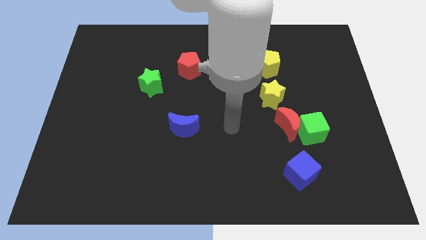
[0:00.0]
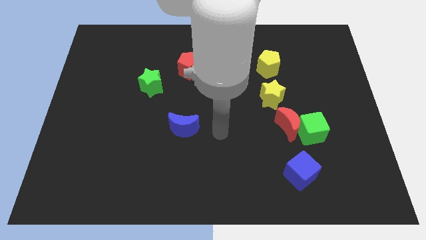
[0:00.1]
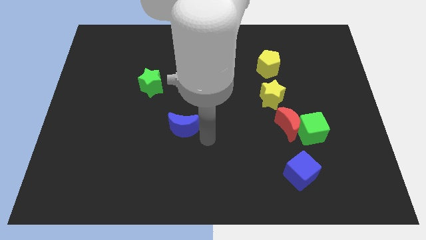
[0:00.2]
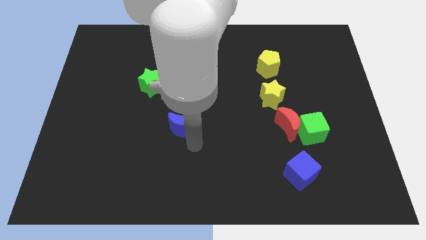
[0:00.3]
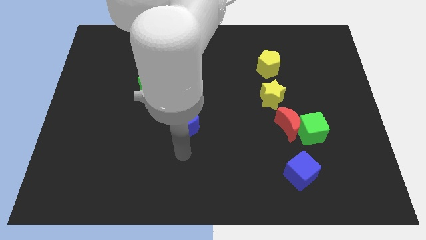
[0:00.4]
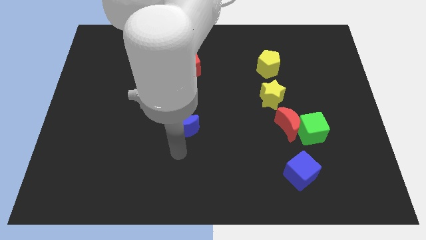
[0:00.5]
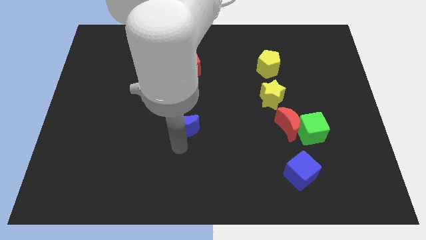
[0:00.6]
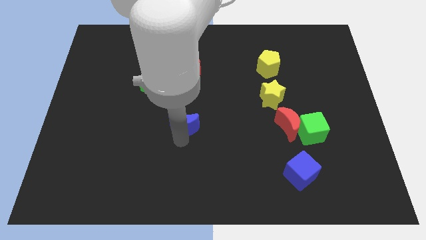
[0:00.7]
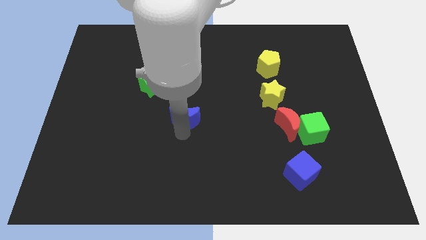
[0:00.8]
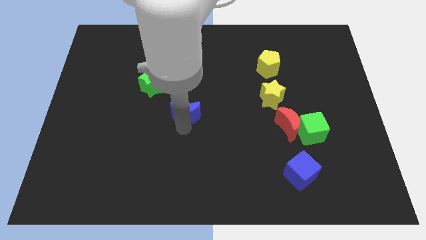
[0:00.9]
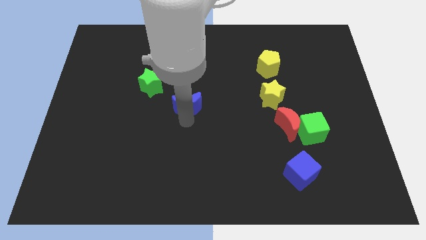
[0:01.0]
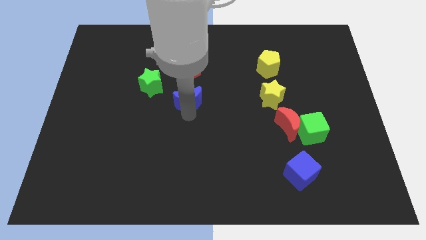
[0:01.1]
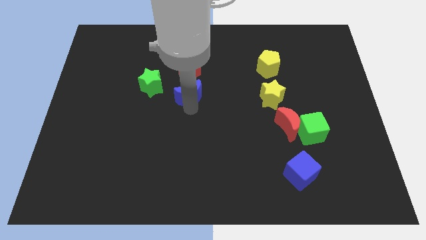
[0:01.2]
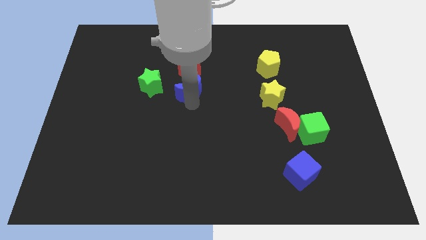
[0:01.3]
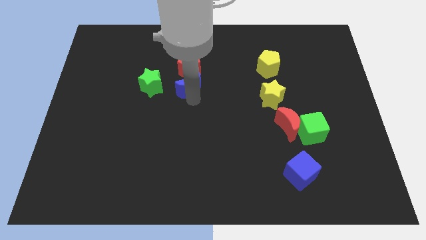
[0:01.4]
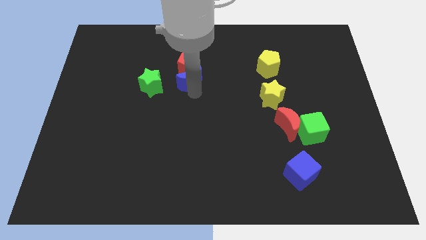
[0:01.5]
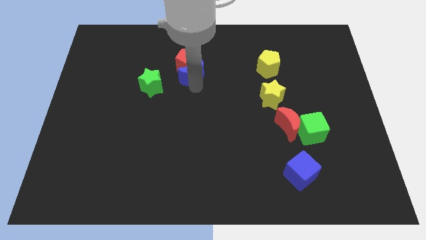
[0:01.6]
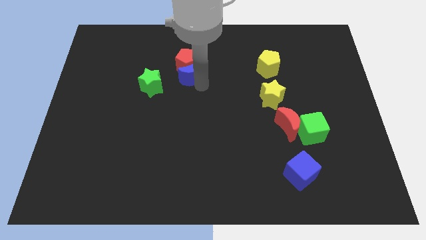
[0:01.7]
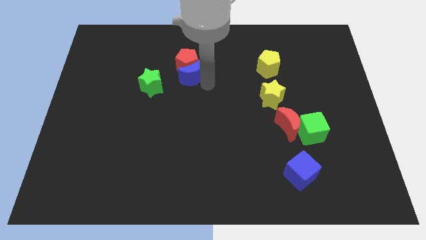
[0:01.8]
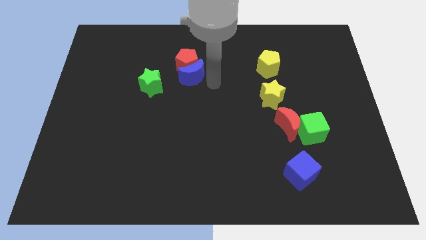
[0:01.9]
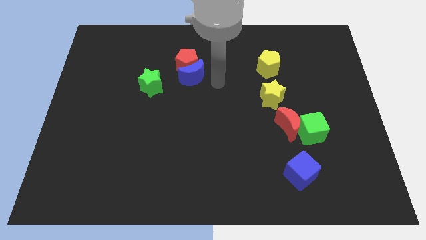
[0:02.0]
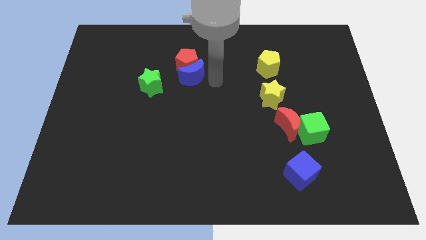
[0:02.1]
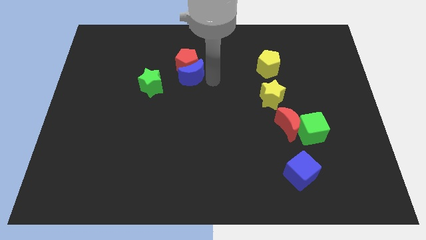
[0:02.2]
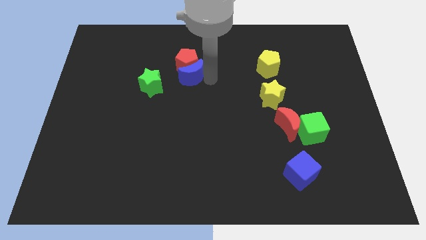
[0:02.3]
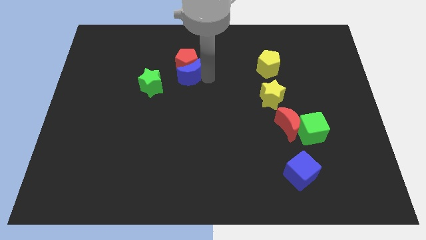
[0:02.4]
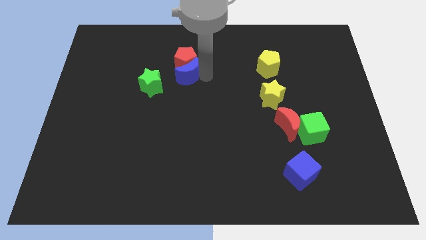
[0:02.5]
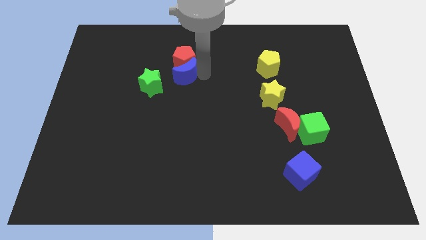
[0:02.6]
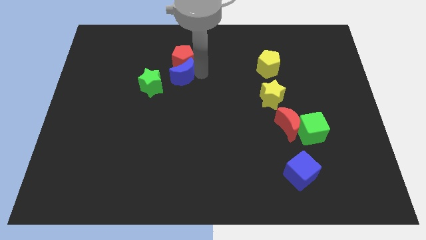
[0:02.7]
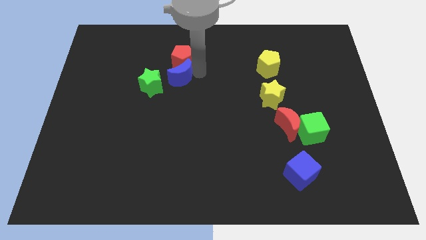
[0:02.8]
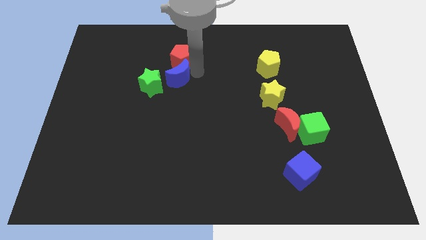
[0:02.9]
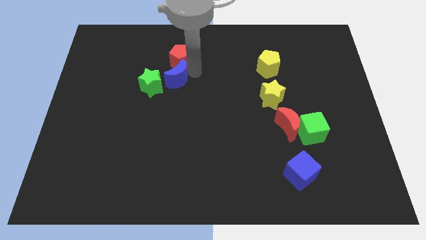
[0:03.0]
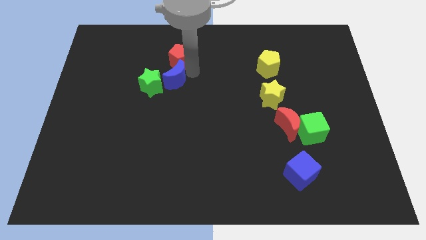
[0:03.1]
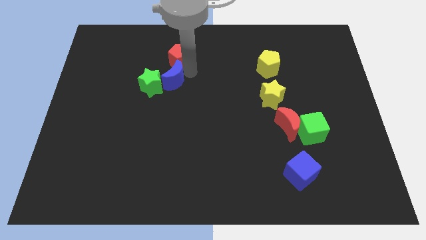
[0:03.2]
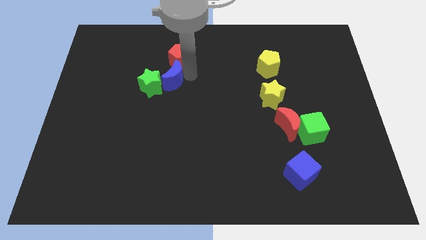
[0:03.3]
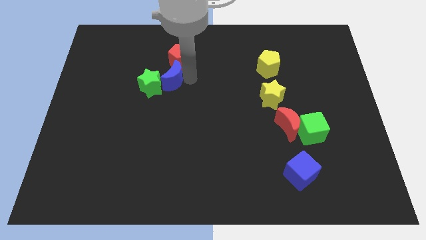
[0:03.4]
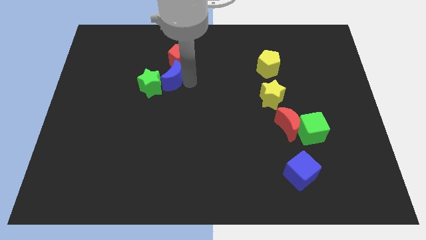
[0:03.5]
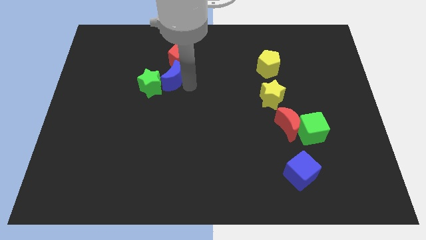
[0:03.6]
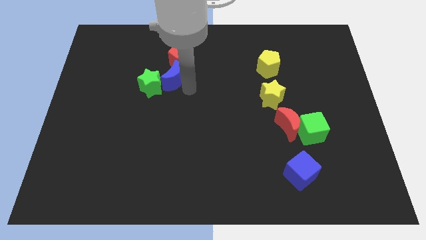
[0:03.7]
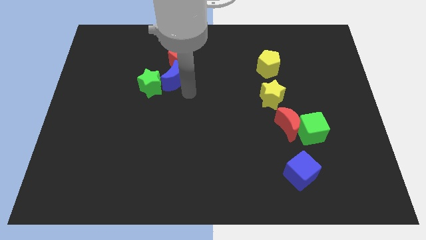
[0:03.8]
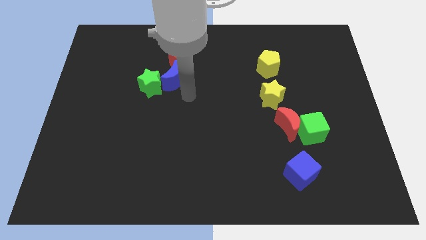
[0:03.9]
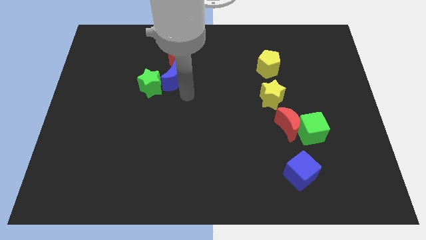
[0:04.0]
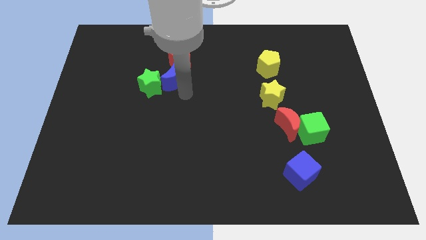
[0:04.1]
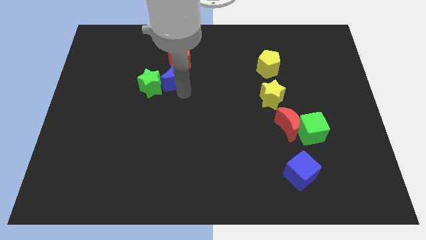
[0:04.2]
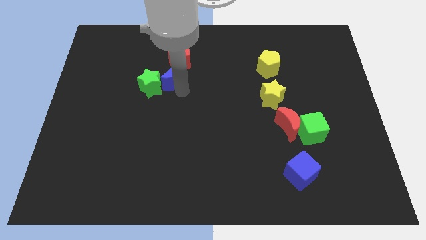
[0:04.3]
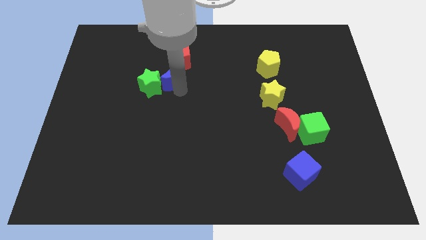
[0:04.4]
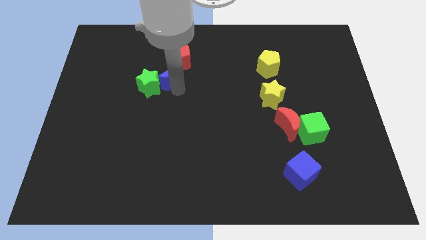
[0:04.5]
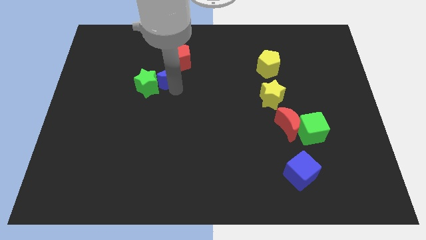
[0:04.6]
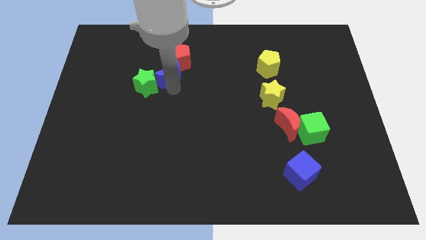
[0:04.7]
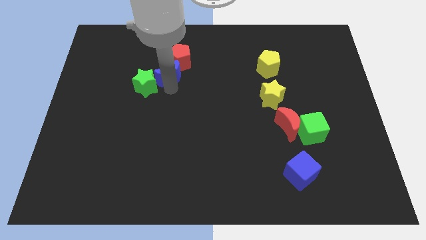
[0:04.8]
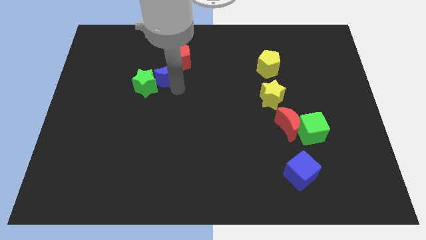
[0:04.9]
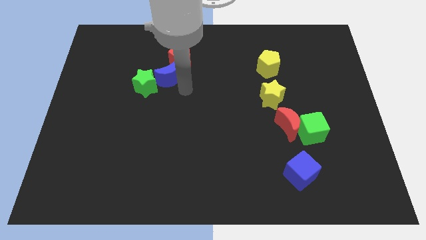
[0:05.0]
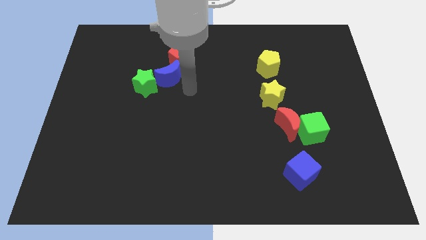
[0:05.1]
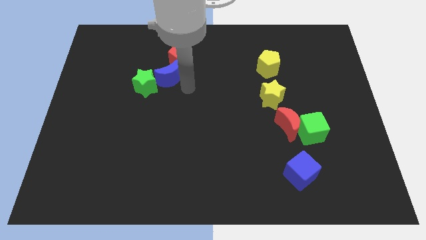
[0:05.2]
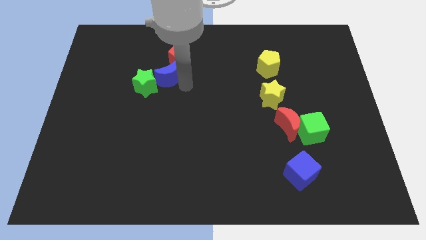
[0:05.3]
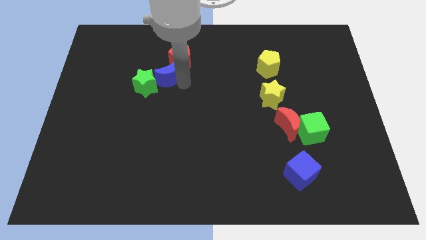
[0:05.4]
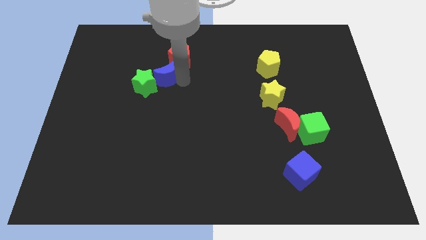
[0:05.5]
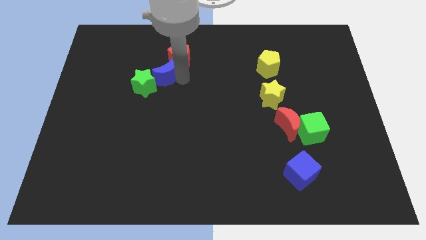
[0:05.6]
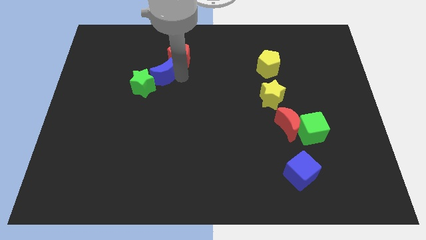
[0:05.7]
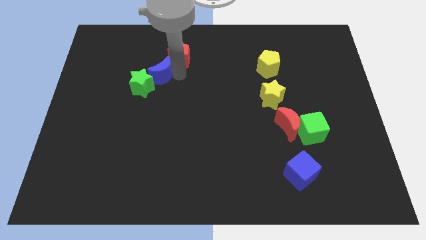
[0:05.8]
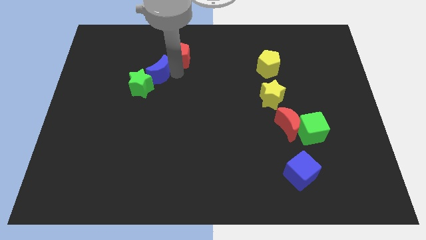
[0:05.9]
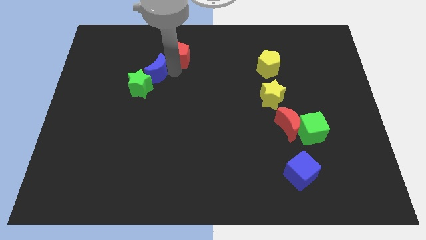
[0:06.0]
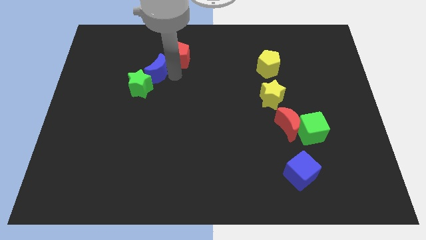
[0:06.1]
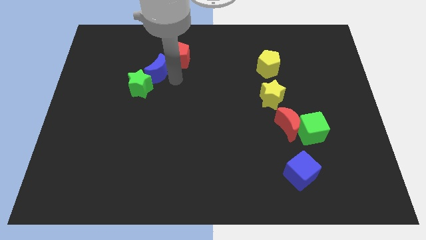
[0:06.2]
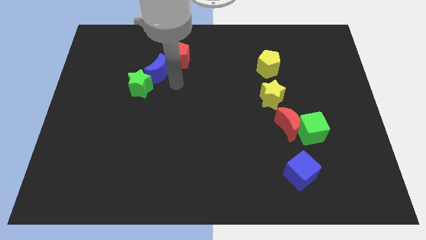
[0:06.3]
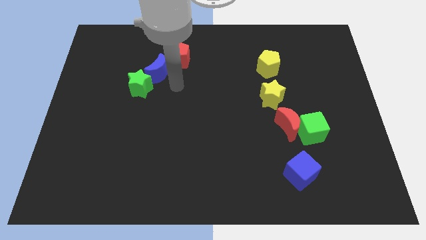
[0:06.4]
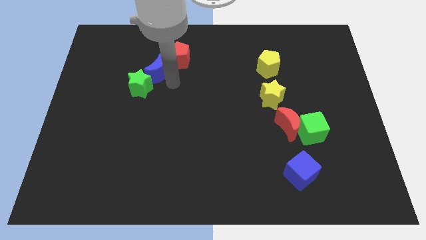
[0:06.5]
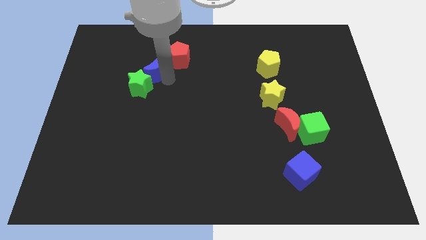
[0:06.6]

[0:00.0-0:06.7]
put the blue moon to the left of the red pentagon

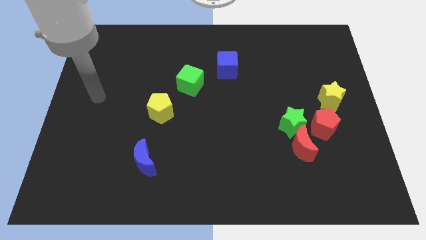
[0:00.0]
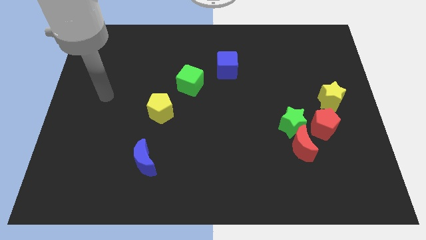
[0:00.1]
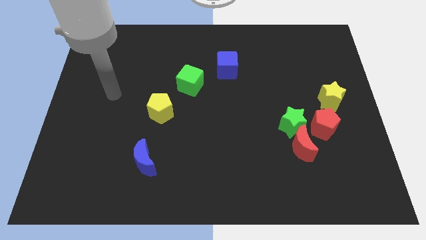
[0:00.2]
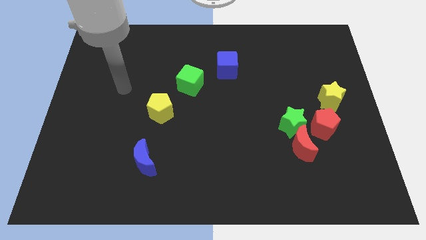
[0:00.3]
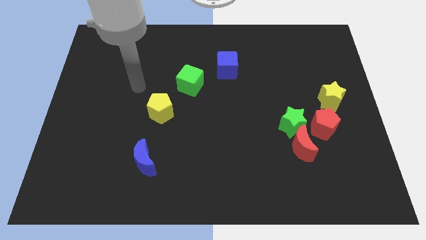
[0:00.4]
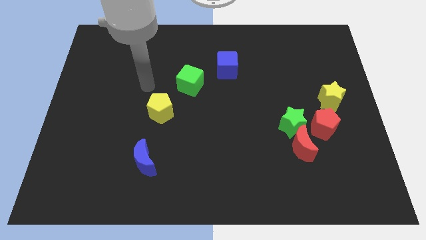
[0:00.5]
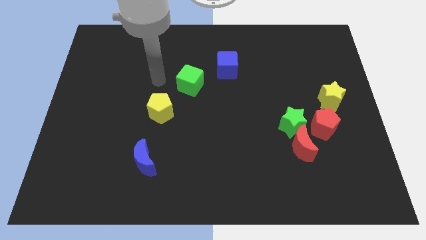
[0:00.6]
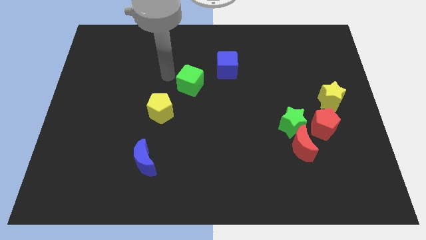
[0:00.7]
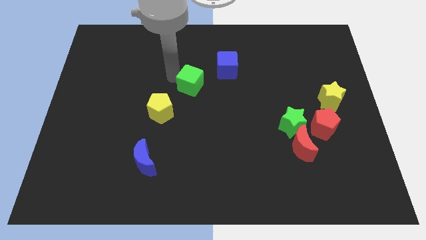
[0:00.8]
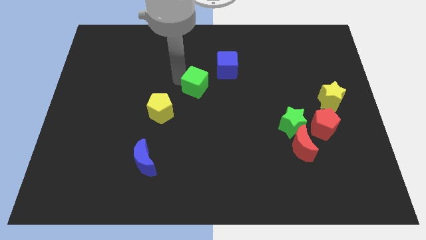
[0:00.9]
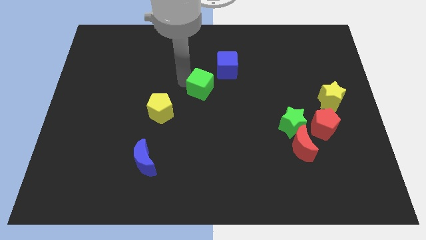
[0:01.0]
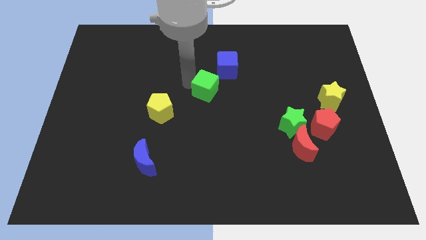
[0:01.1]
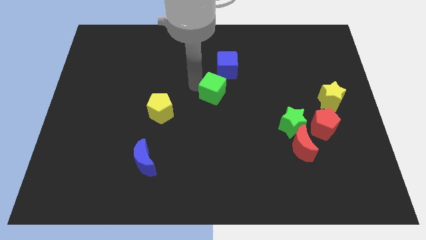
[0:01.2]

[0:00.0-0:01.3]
put the green cube to the bottom side of the blue cube
